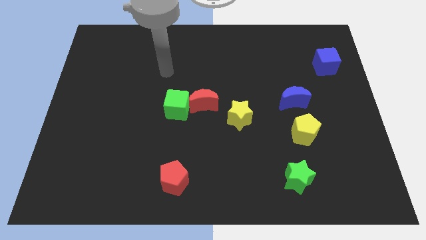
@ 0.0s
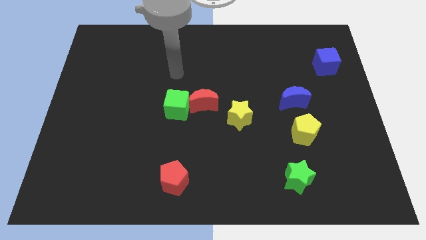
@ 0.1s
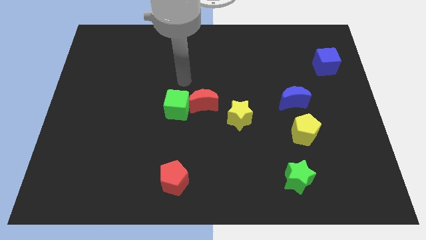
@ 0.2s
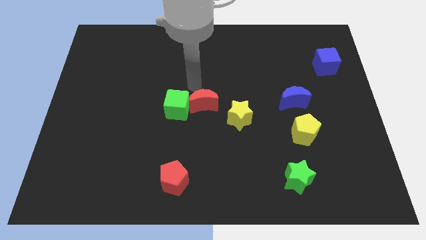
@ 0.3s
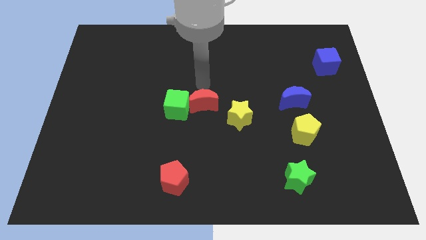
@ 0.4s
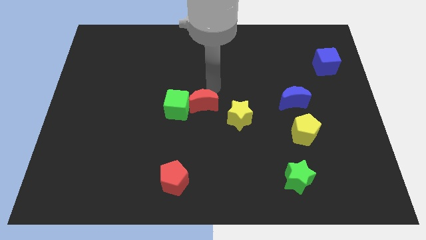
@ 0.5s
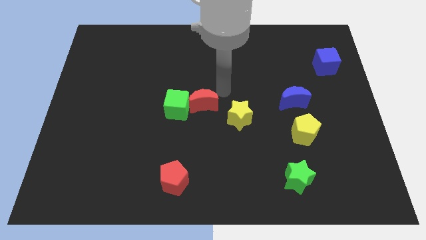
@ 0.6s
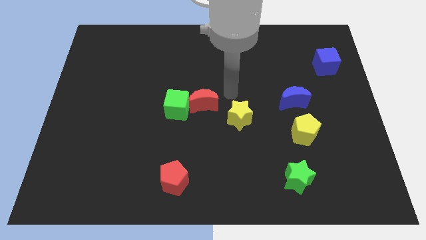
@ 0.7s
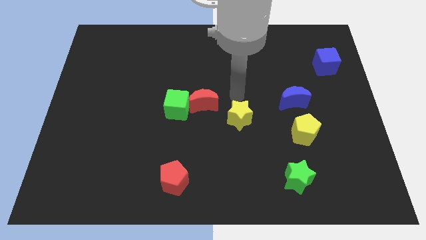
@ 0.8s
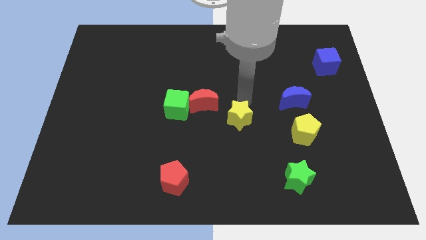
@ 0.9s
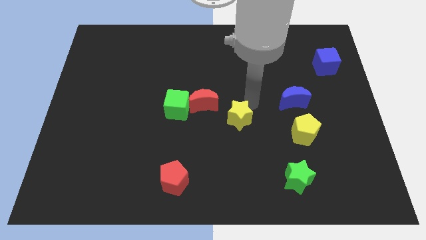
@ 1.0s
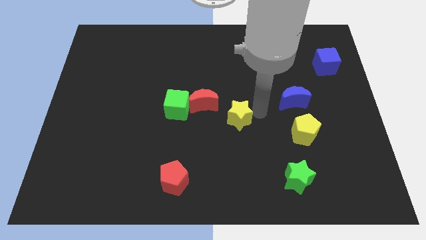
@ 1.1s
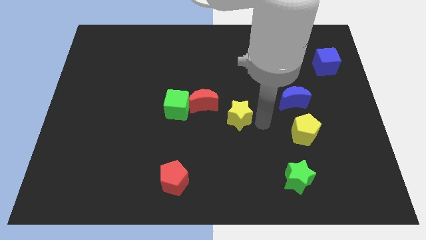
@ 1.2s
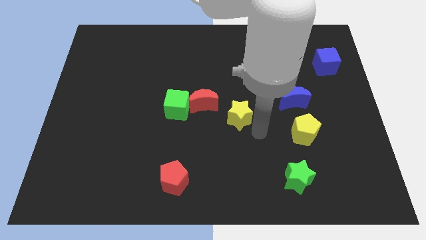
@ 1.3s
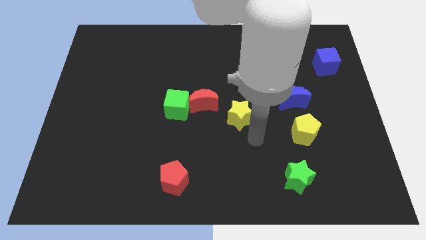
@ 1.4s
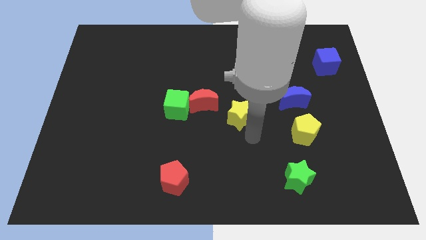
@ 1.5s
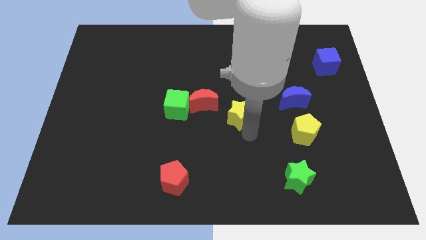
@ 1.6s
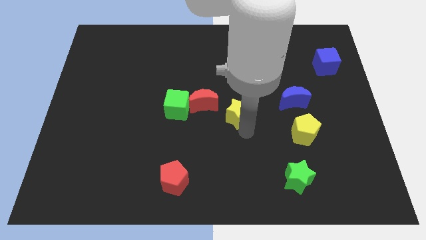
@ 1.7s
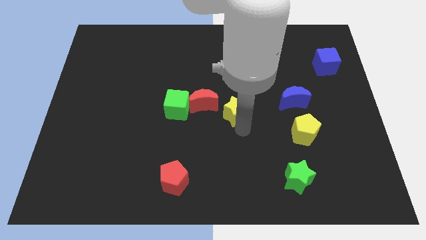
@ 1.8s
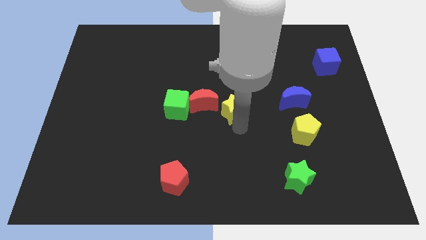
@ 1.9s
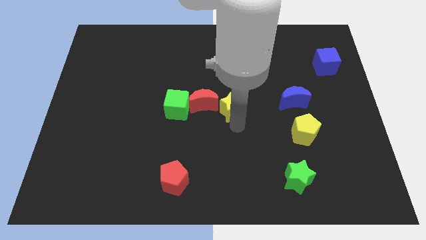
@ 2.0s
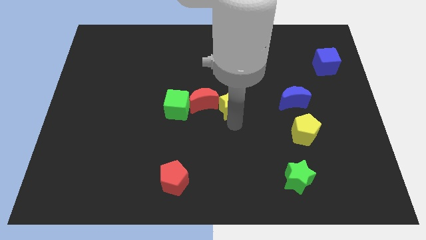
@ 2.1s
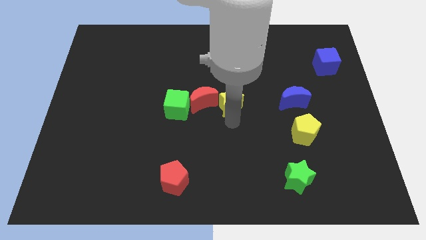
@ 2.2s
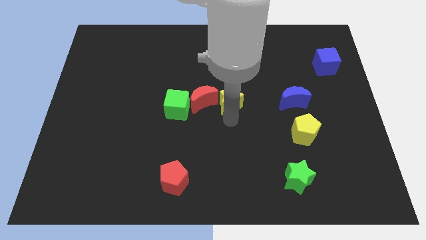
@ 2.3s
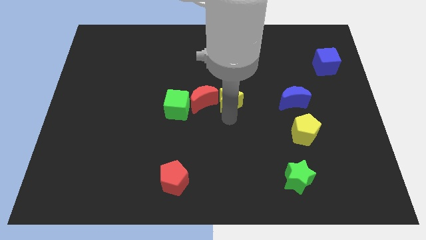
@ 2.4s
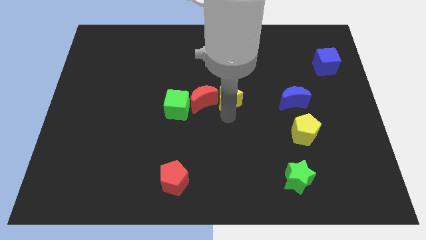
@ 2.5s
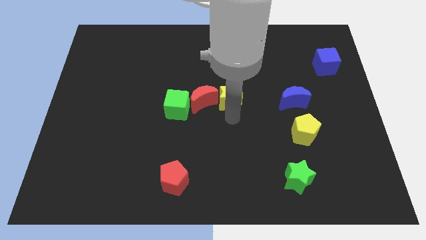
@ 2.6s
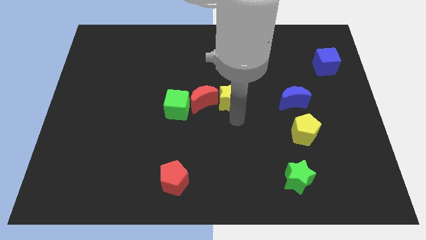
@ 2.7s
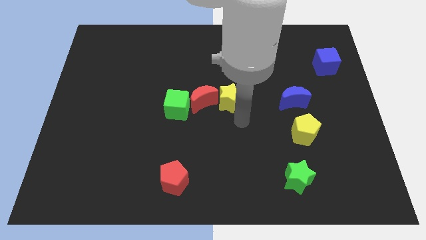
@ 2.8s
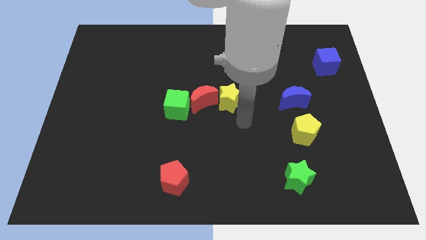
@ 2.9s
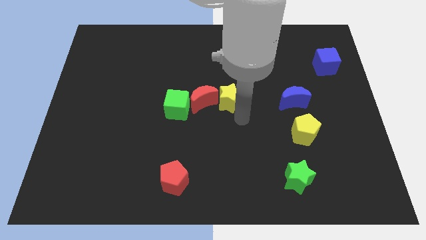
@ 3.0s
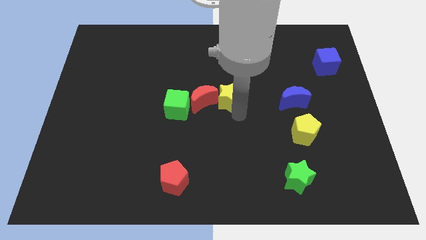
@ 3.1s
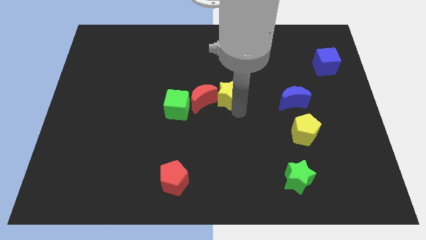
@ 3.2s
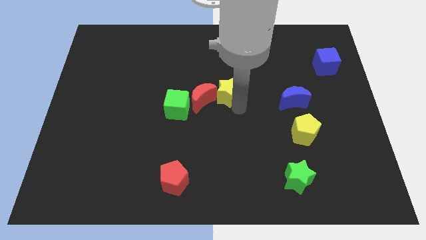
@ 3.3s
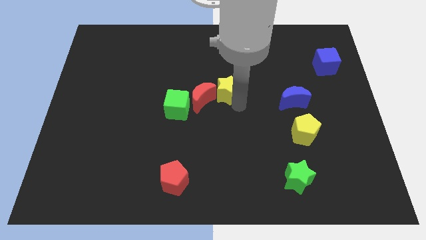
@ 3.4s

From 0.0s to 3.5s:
push the yellow star a bit up and then left

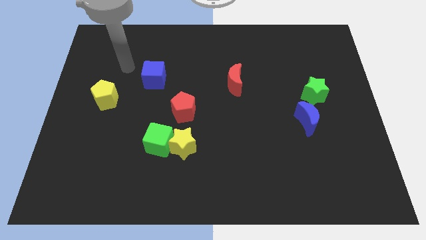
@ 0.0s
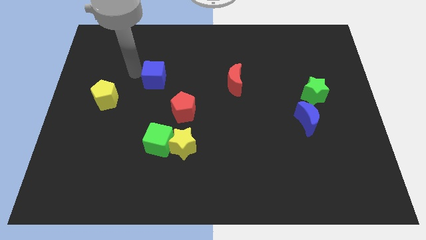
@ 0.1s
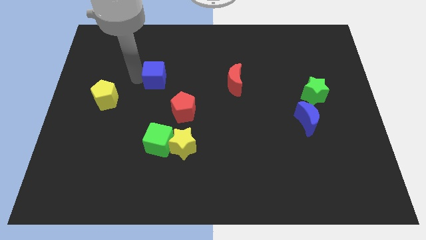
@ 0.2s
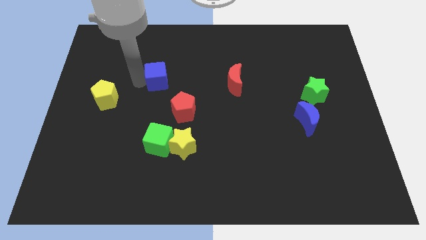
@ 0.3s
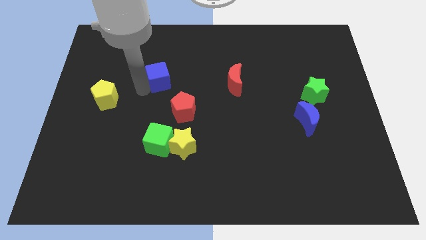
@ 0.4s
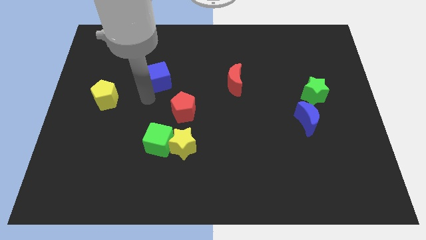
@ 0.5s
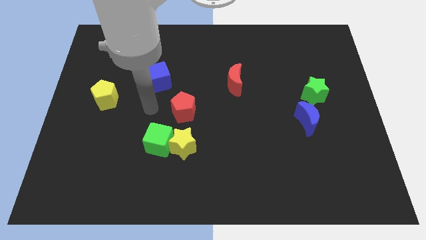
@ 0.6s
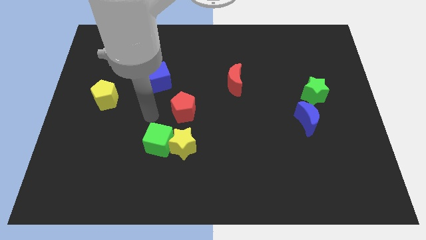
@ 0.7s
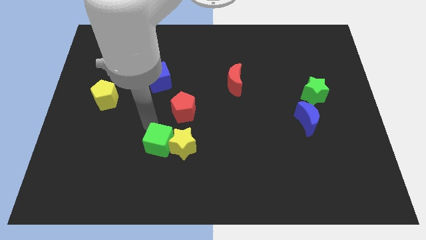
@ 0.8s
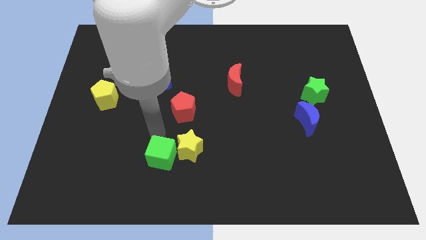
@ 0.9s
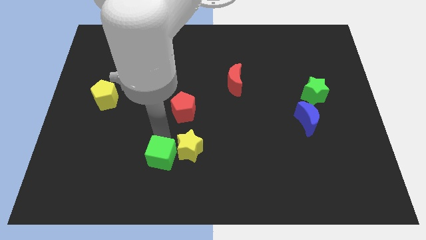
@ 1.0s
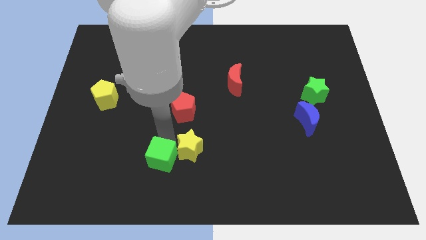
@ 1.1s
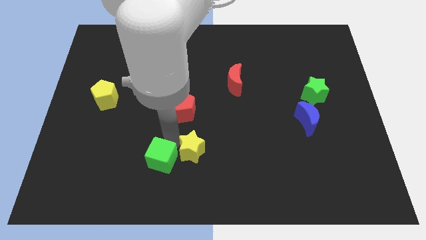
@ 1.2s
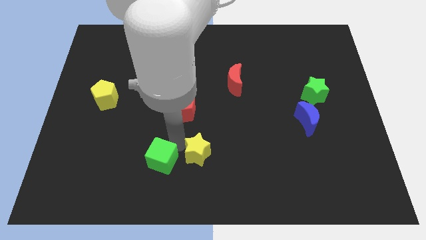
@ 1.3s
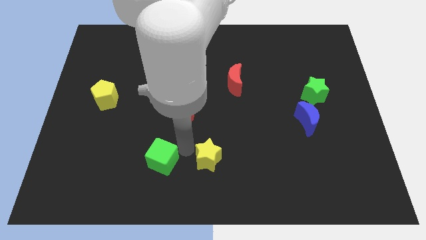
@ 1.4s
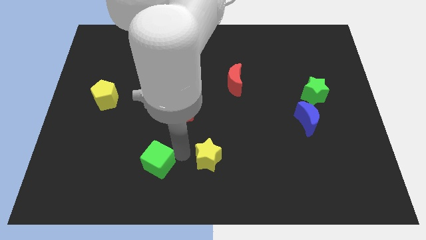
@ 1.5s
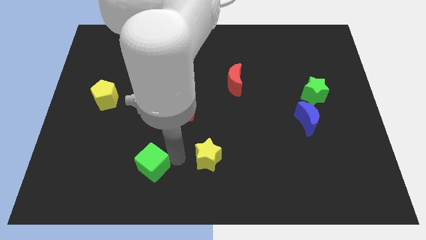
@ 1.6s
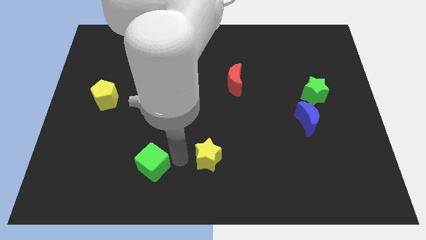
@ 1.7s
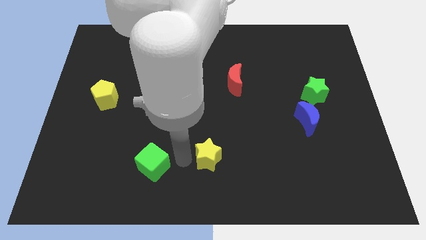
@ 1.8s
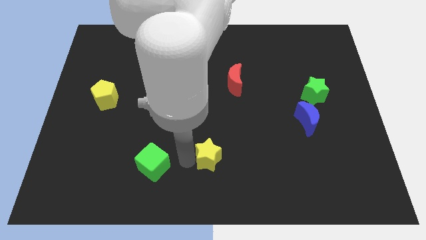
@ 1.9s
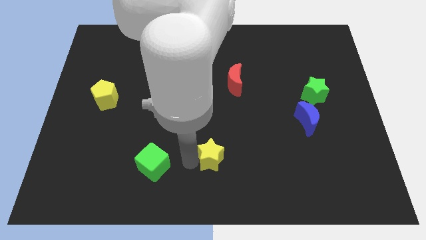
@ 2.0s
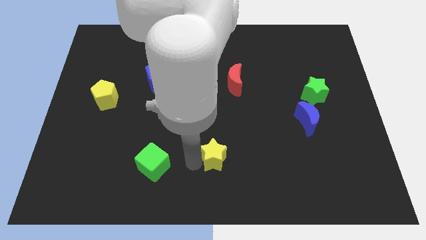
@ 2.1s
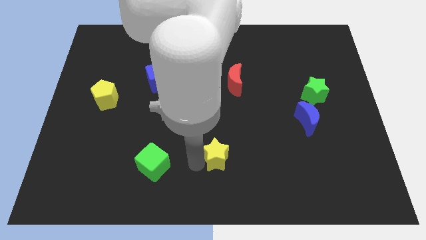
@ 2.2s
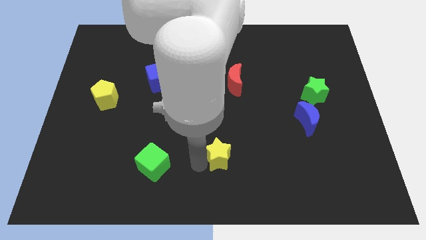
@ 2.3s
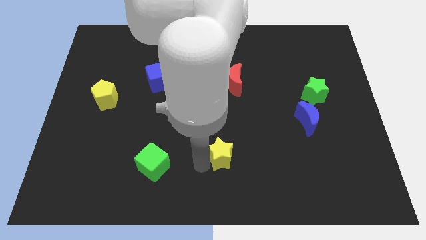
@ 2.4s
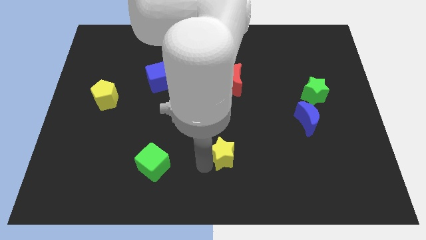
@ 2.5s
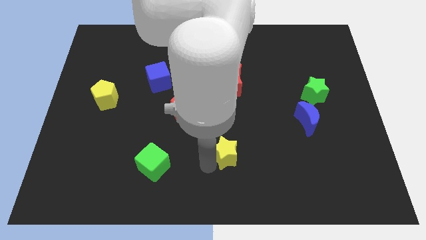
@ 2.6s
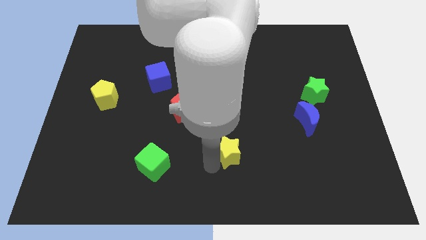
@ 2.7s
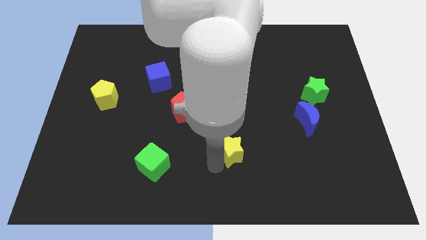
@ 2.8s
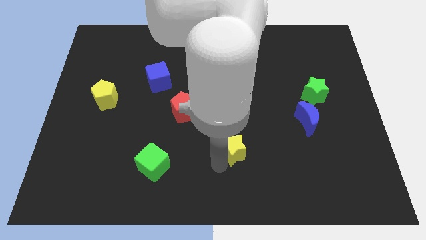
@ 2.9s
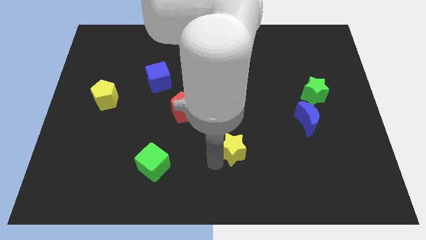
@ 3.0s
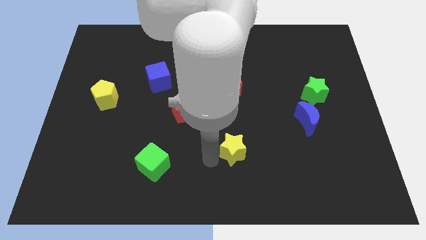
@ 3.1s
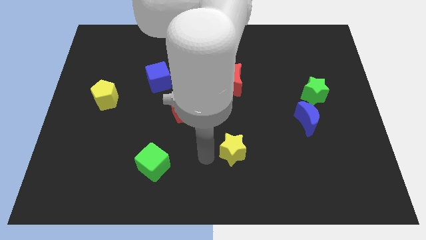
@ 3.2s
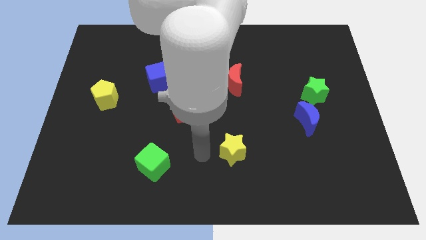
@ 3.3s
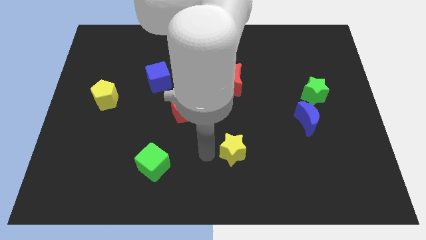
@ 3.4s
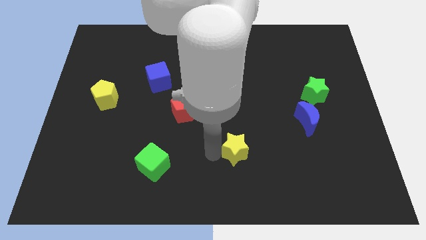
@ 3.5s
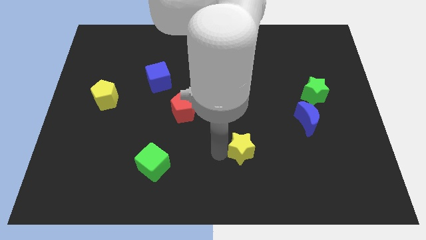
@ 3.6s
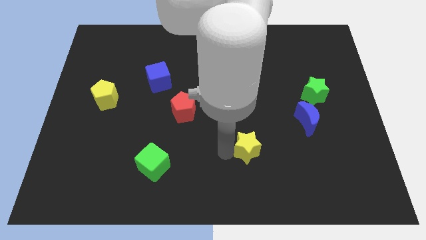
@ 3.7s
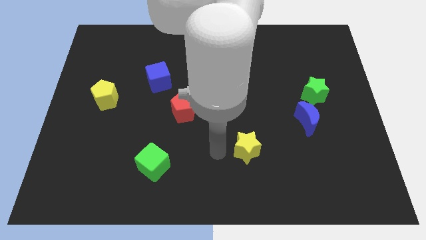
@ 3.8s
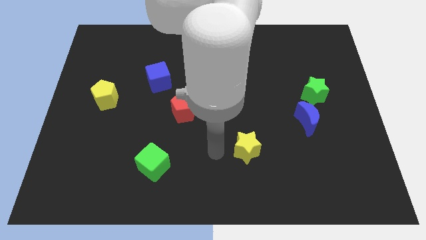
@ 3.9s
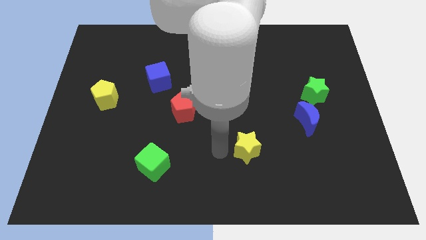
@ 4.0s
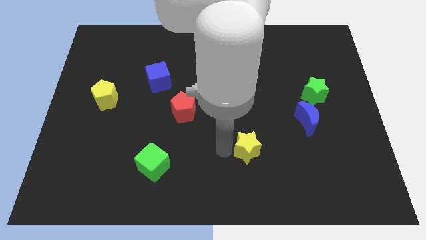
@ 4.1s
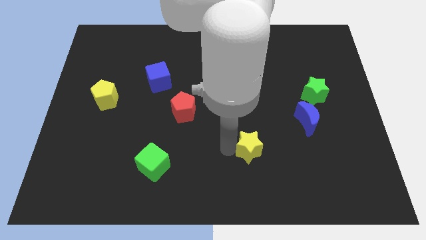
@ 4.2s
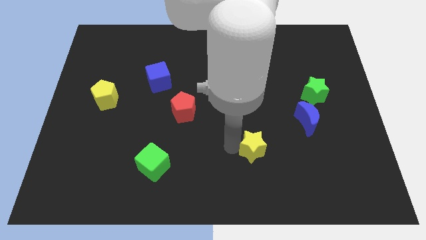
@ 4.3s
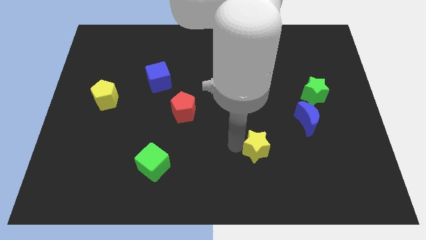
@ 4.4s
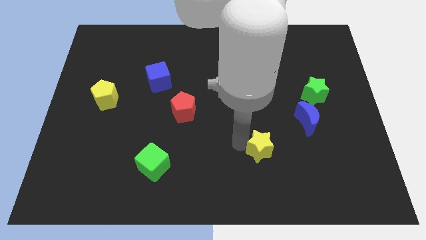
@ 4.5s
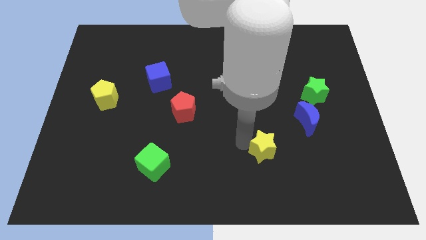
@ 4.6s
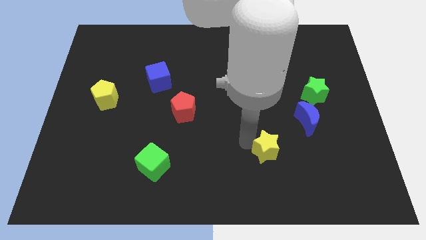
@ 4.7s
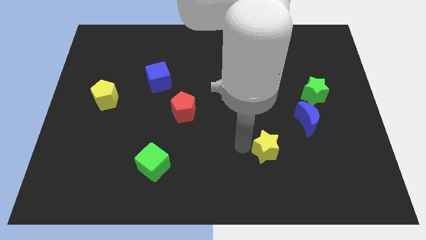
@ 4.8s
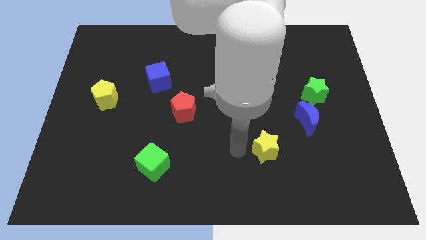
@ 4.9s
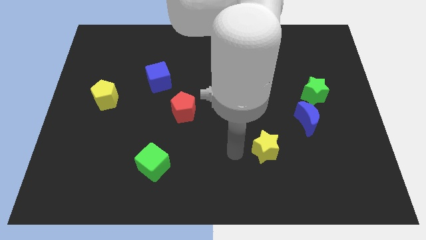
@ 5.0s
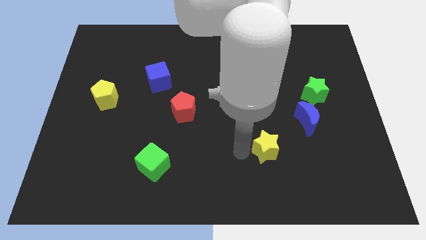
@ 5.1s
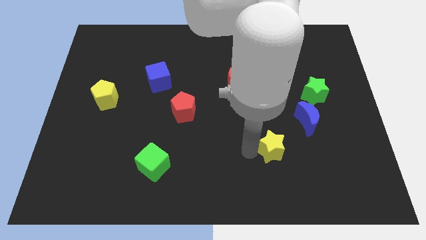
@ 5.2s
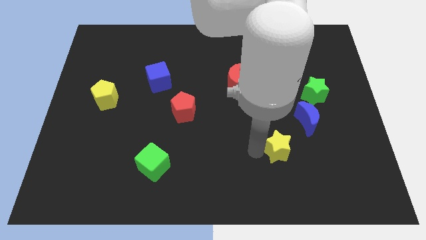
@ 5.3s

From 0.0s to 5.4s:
push the yellow star right
